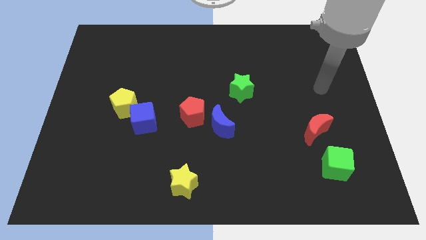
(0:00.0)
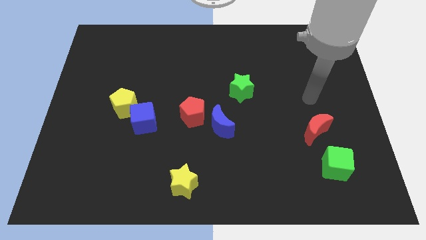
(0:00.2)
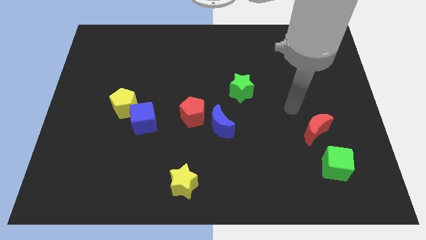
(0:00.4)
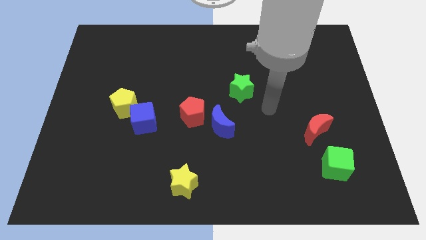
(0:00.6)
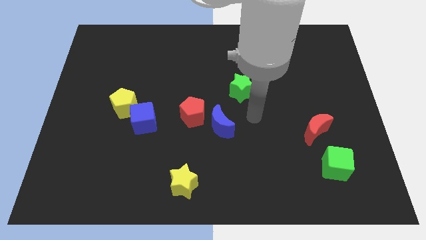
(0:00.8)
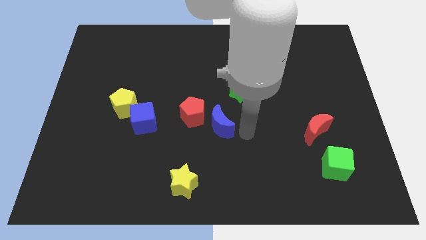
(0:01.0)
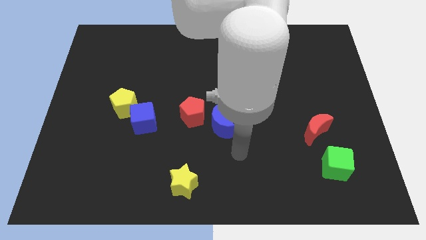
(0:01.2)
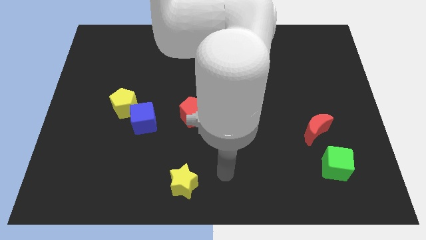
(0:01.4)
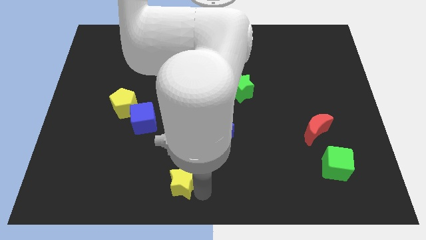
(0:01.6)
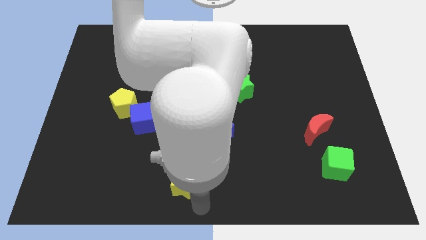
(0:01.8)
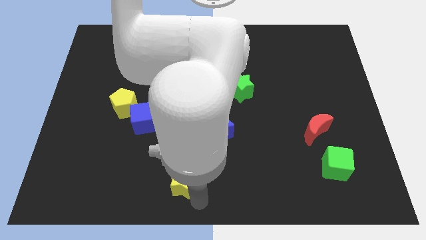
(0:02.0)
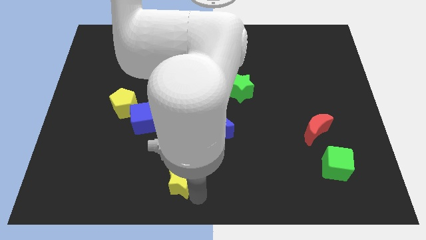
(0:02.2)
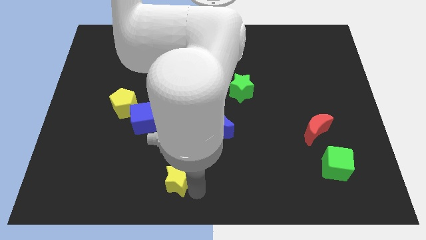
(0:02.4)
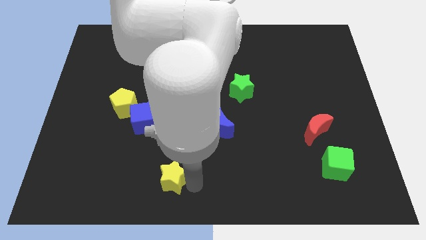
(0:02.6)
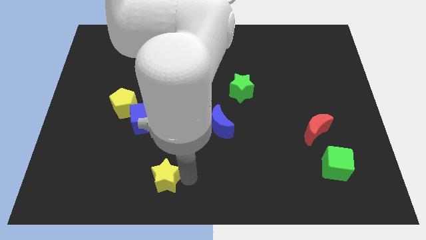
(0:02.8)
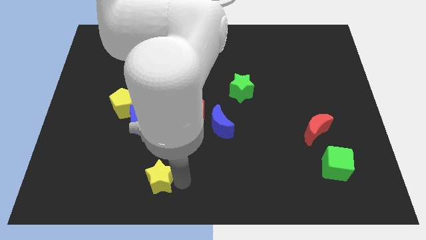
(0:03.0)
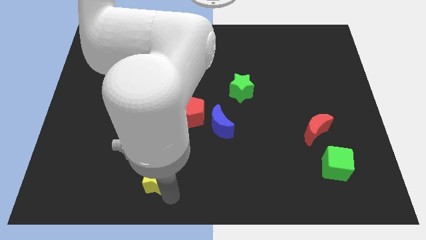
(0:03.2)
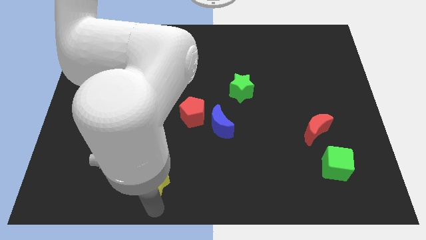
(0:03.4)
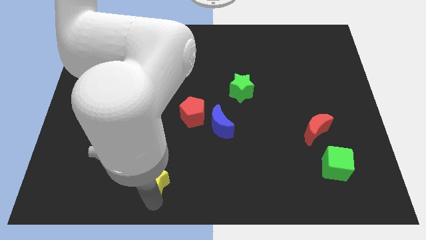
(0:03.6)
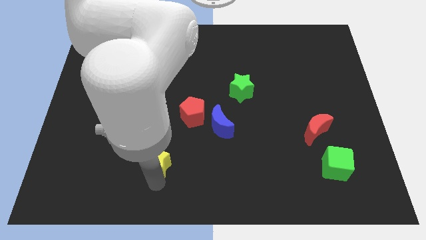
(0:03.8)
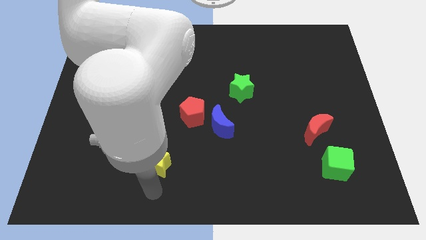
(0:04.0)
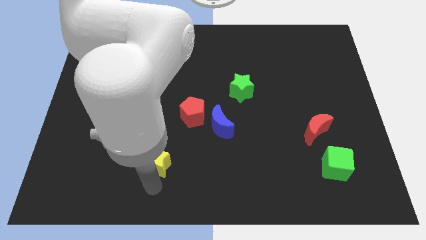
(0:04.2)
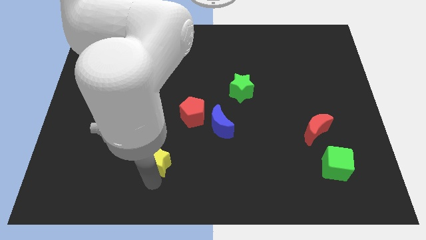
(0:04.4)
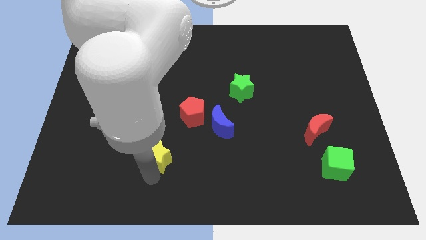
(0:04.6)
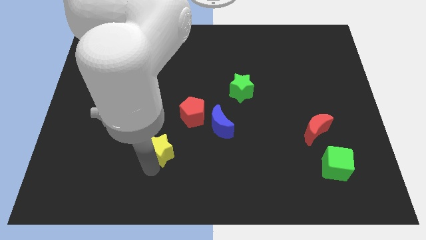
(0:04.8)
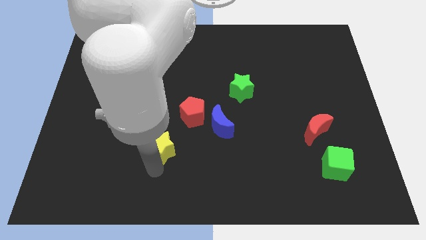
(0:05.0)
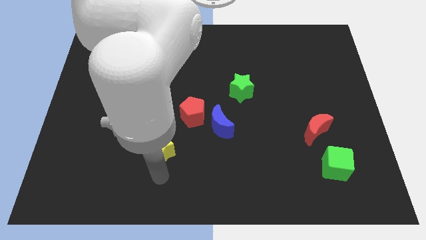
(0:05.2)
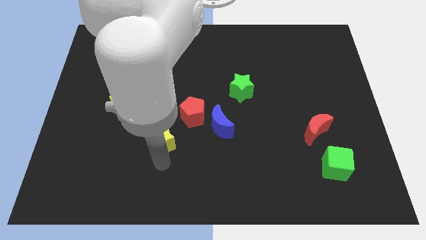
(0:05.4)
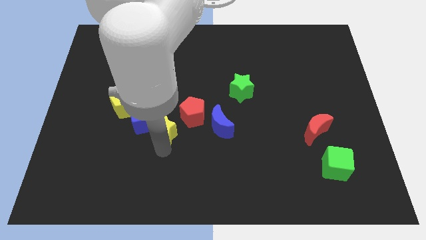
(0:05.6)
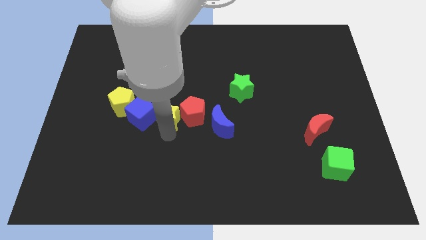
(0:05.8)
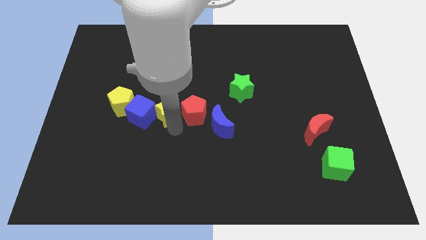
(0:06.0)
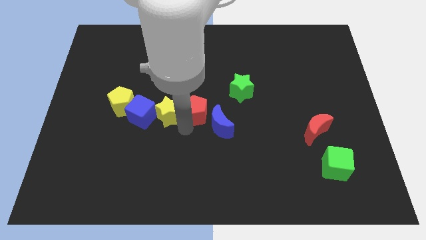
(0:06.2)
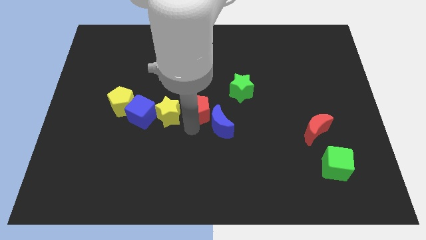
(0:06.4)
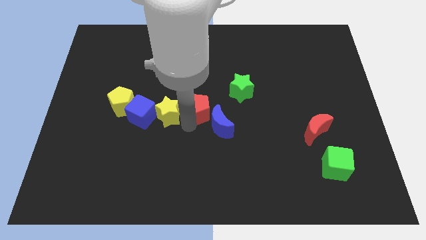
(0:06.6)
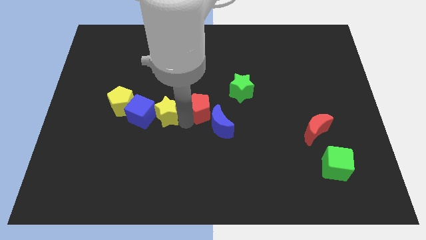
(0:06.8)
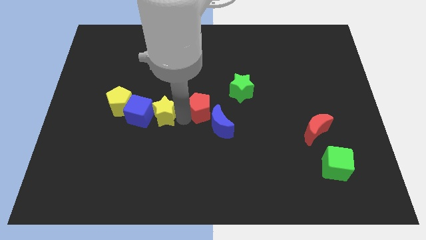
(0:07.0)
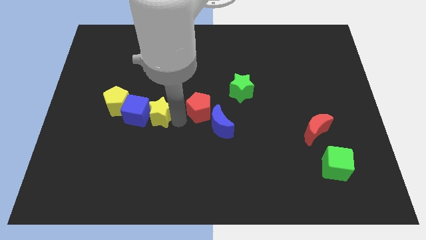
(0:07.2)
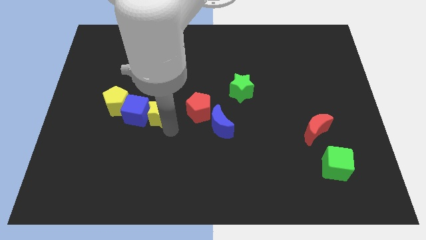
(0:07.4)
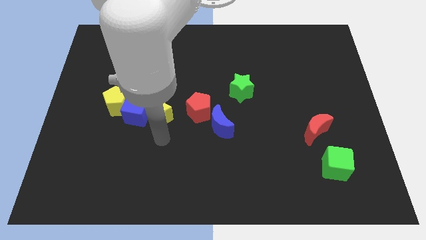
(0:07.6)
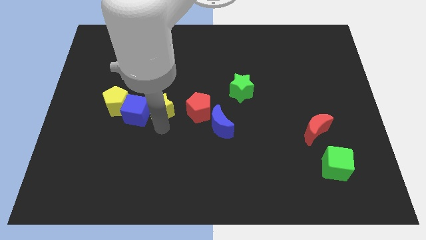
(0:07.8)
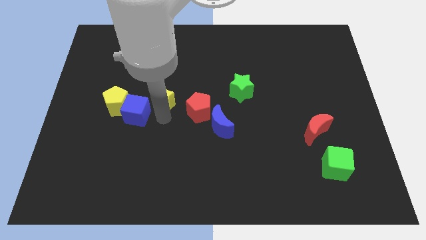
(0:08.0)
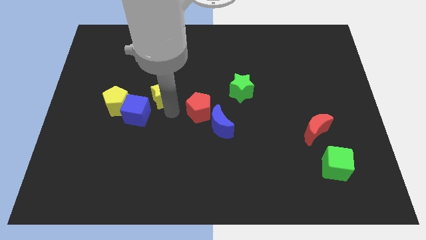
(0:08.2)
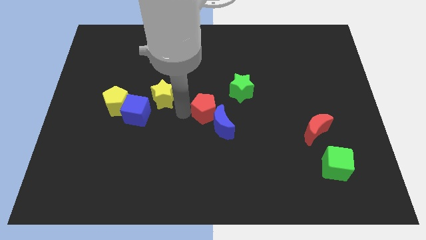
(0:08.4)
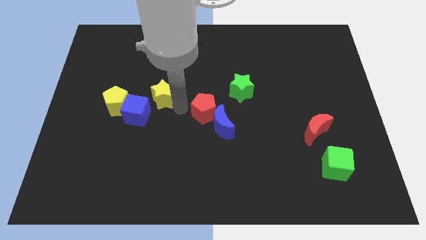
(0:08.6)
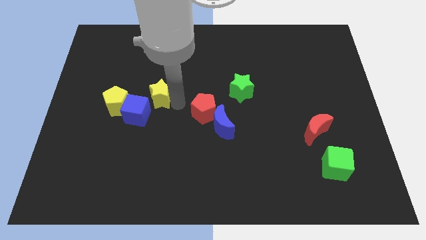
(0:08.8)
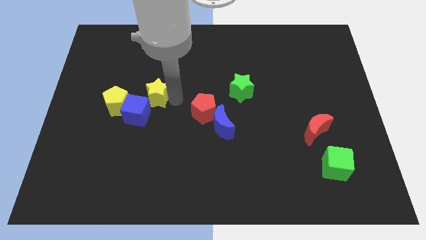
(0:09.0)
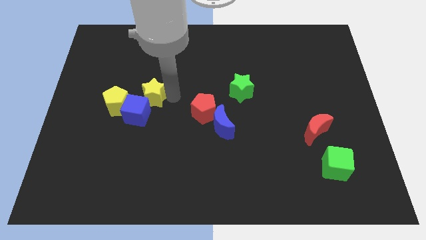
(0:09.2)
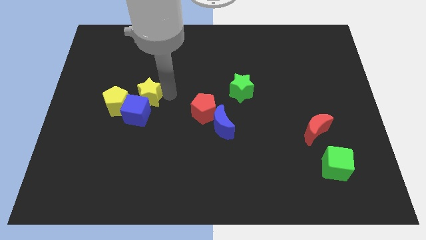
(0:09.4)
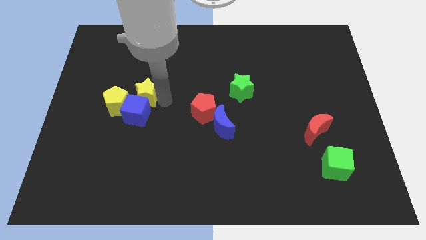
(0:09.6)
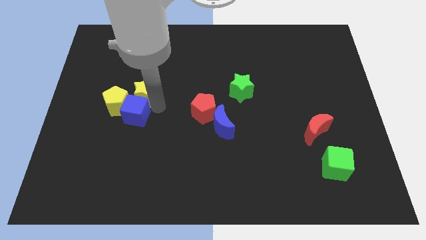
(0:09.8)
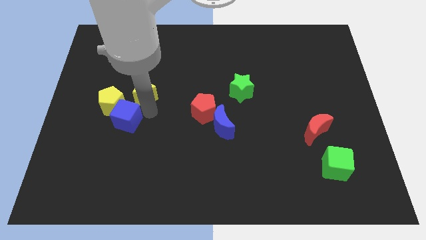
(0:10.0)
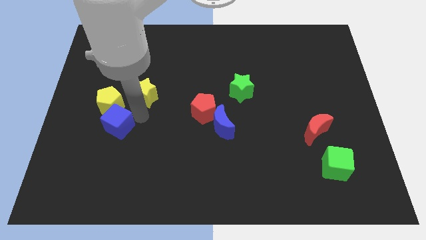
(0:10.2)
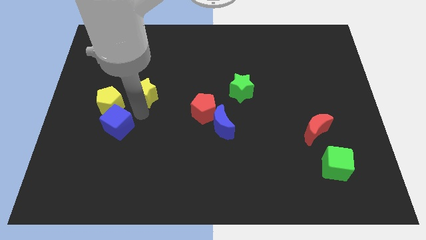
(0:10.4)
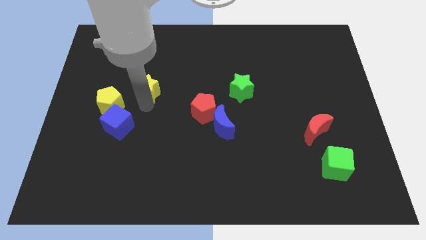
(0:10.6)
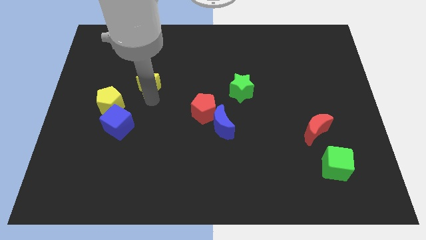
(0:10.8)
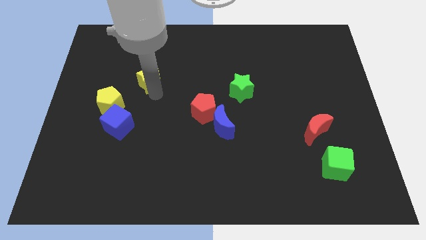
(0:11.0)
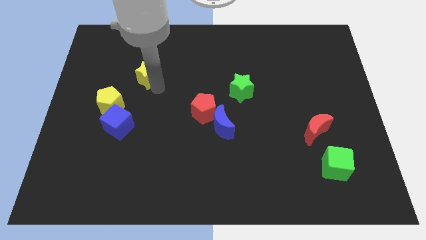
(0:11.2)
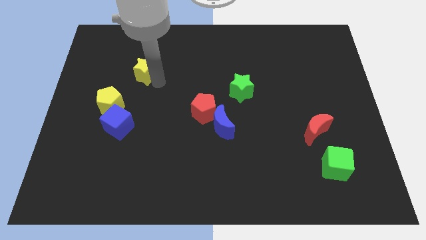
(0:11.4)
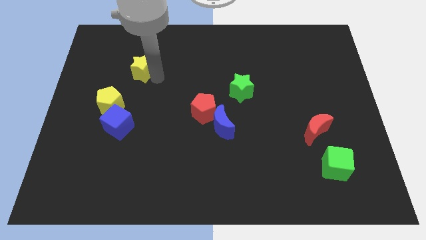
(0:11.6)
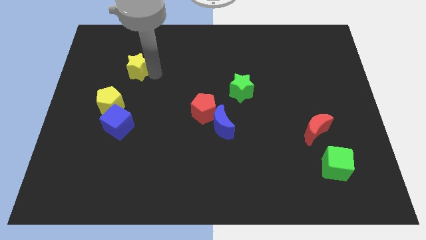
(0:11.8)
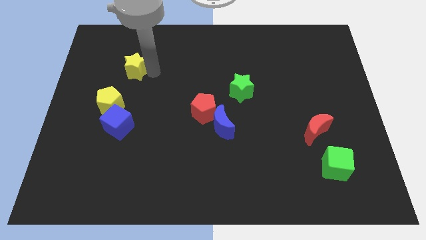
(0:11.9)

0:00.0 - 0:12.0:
put the yellow star to the top side of the yellow pentagon

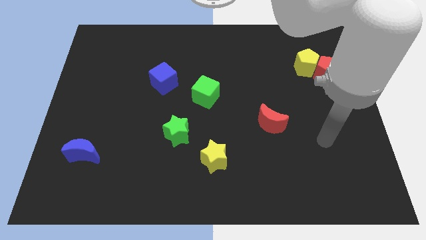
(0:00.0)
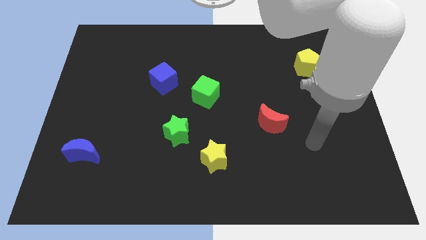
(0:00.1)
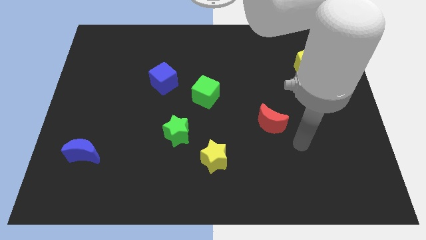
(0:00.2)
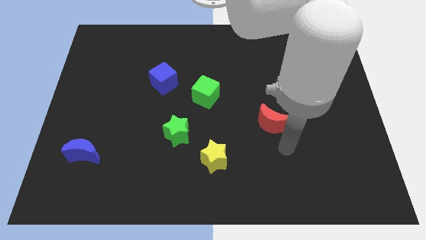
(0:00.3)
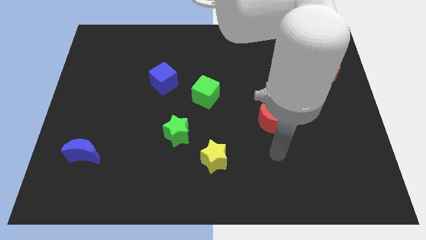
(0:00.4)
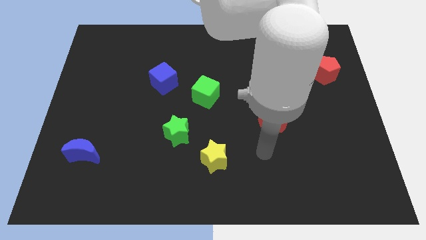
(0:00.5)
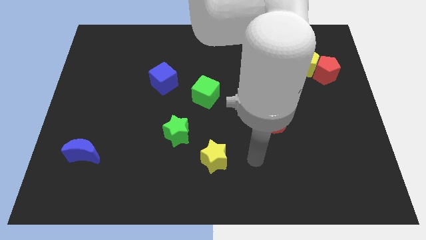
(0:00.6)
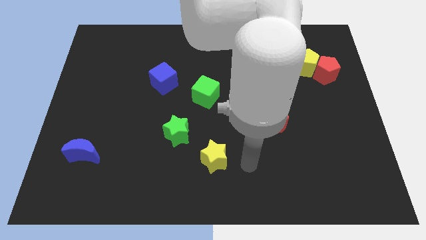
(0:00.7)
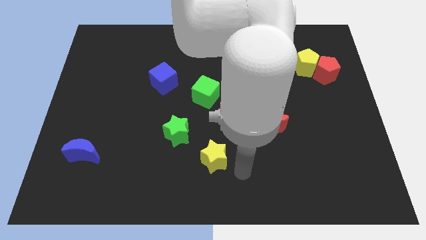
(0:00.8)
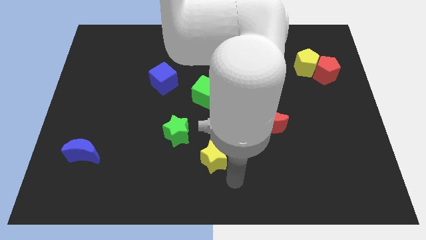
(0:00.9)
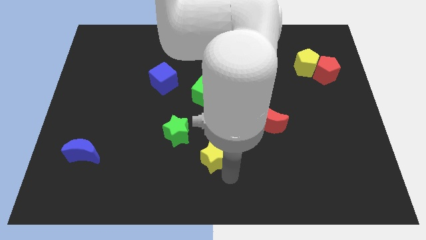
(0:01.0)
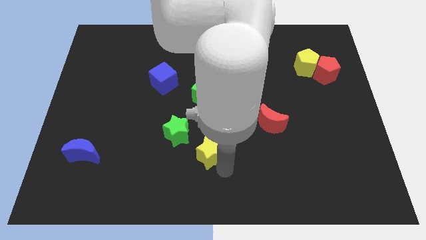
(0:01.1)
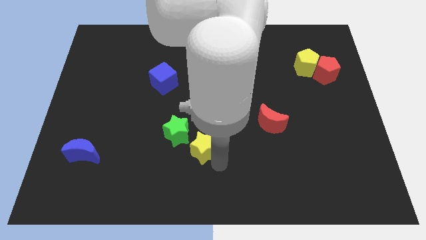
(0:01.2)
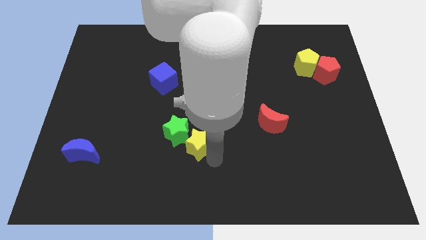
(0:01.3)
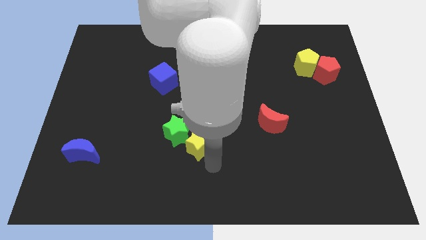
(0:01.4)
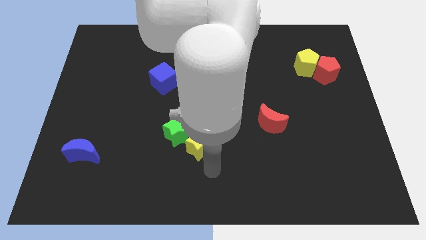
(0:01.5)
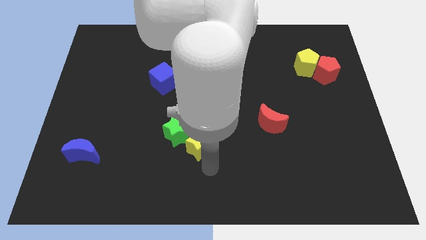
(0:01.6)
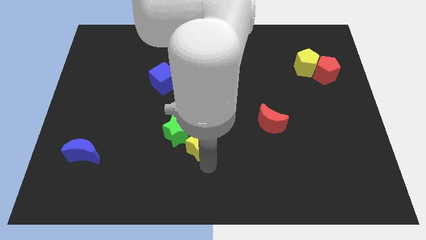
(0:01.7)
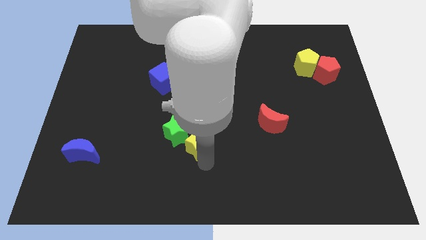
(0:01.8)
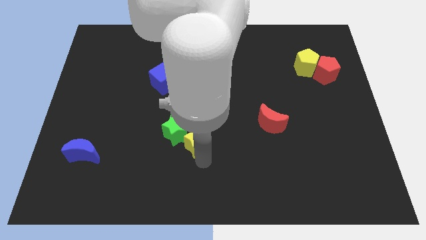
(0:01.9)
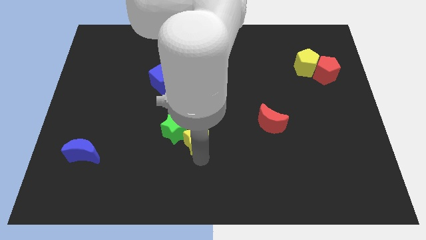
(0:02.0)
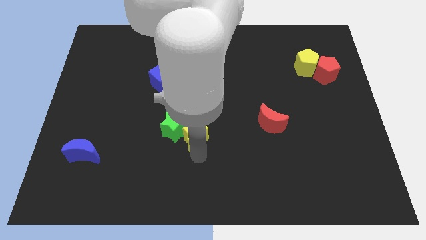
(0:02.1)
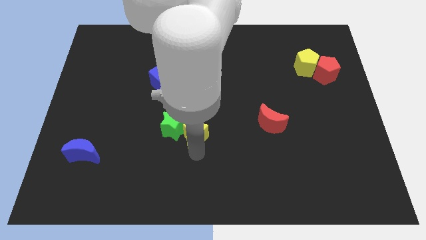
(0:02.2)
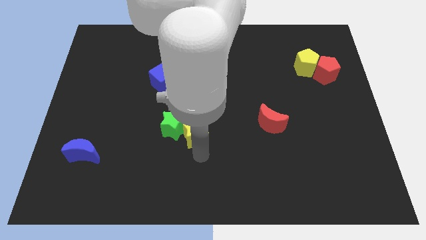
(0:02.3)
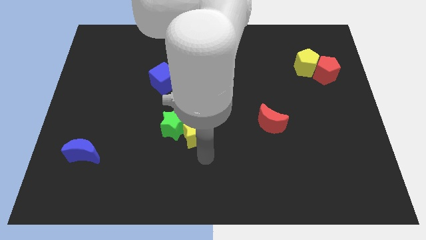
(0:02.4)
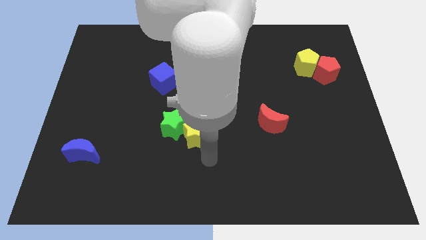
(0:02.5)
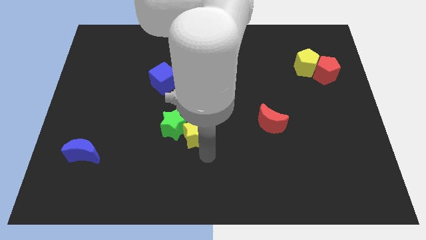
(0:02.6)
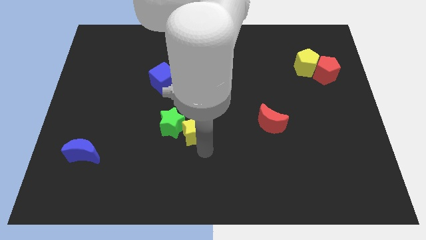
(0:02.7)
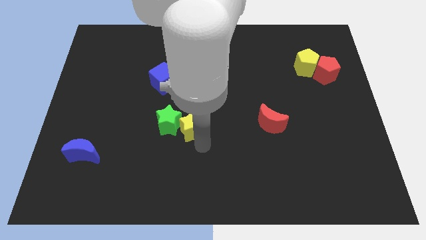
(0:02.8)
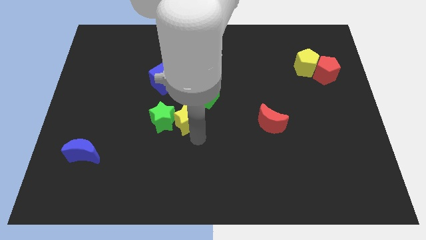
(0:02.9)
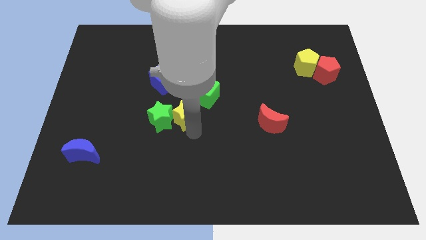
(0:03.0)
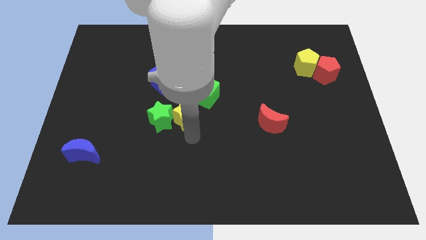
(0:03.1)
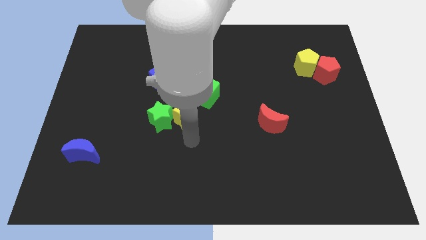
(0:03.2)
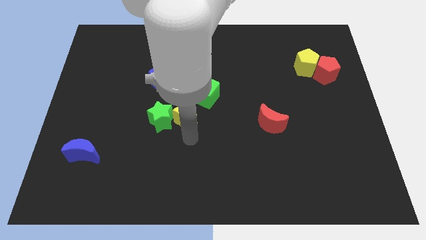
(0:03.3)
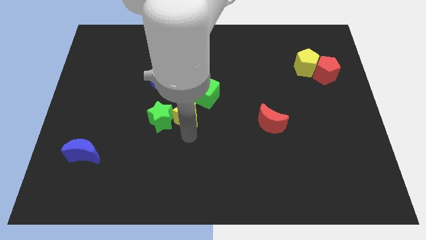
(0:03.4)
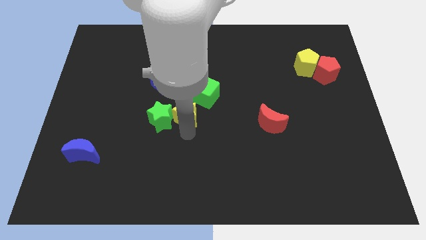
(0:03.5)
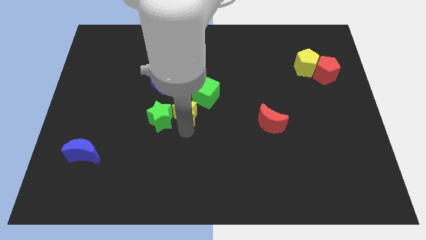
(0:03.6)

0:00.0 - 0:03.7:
slide the yellow star to the bottom right of the blue cube
